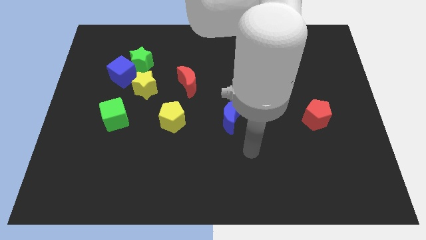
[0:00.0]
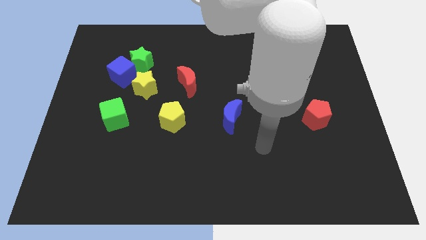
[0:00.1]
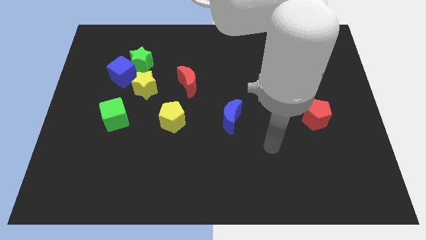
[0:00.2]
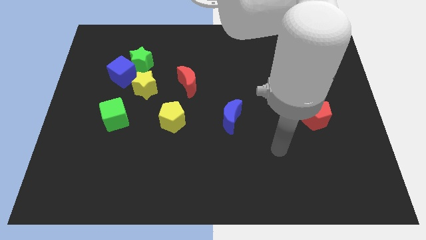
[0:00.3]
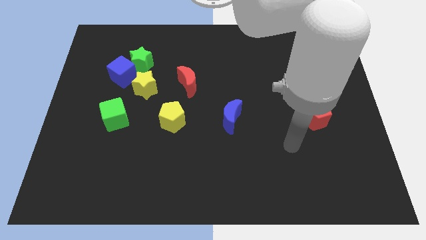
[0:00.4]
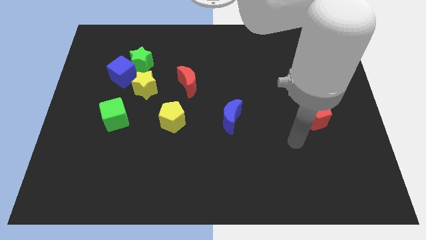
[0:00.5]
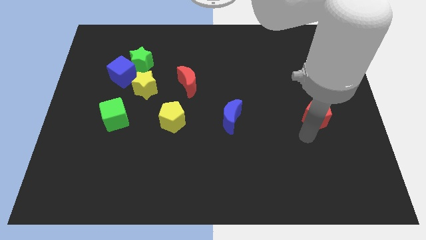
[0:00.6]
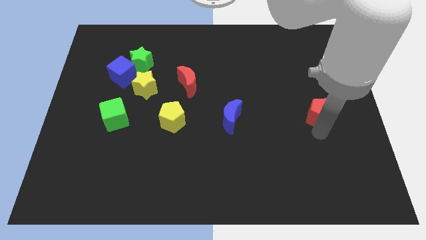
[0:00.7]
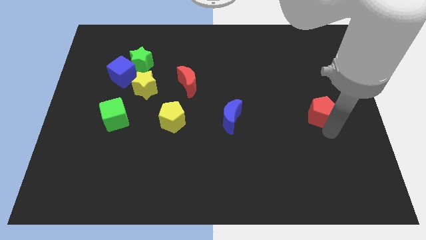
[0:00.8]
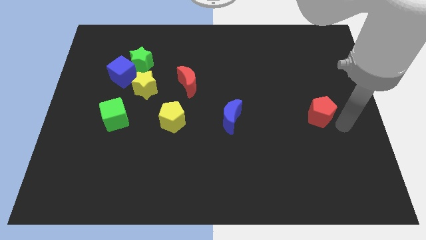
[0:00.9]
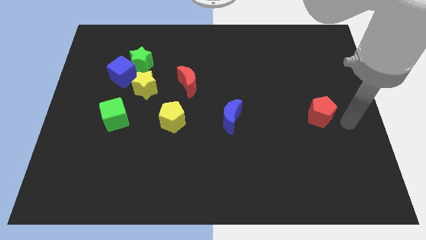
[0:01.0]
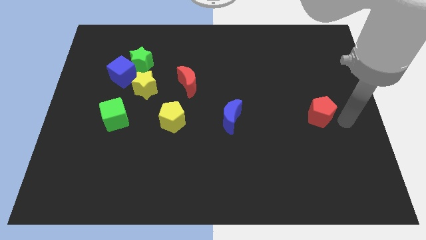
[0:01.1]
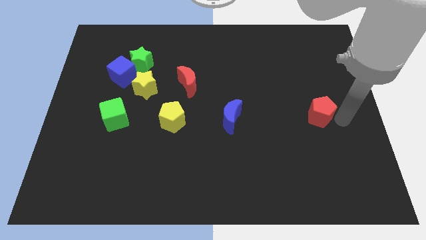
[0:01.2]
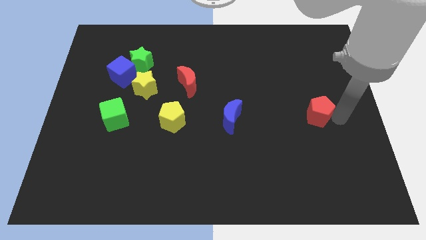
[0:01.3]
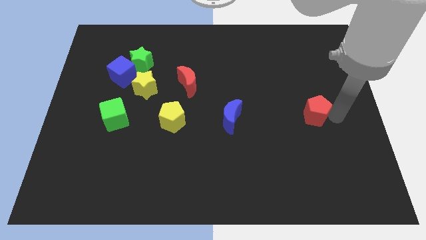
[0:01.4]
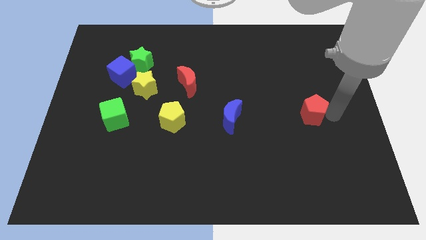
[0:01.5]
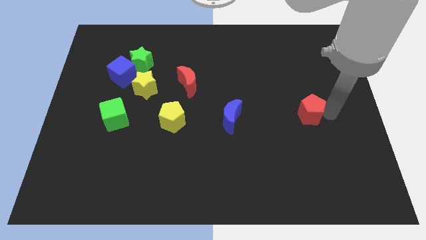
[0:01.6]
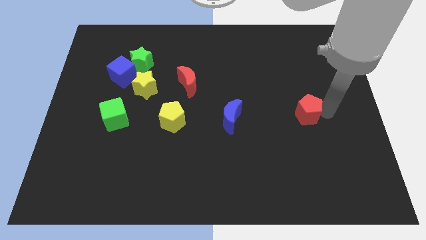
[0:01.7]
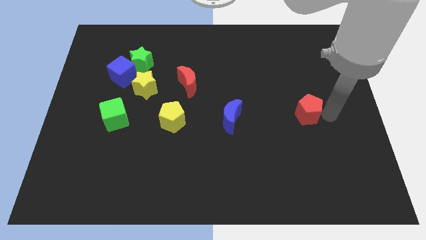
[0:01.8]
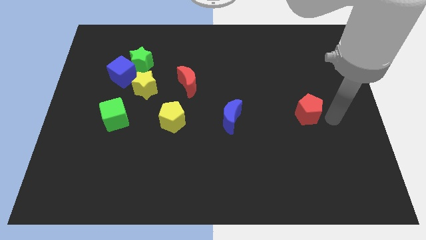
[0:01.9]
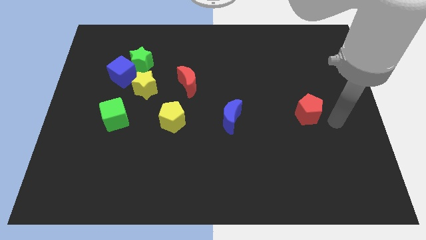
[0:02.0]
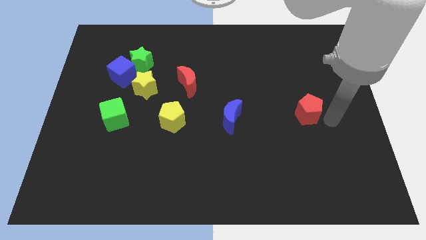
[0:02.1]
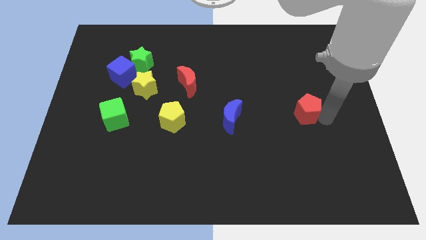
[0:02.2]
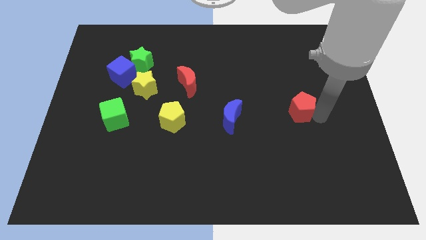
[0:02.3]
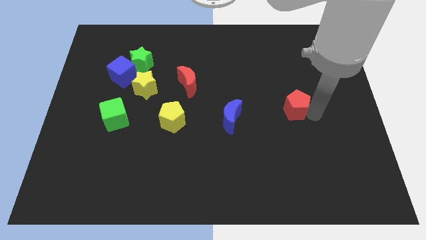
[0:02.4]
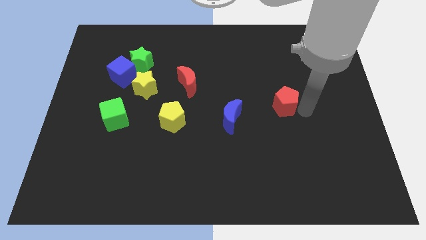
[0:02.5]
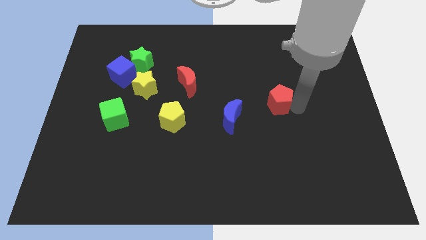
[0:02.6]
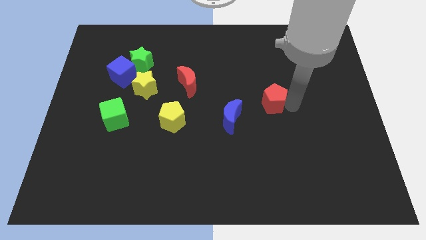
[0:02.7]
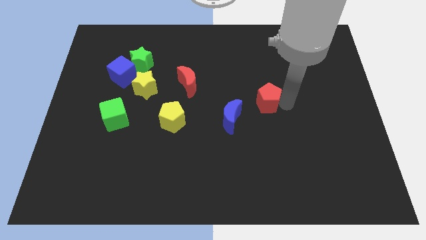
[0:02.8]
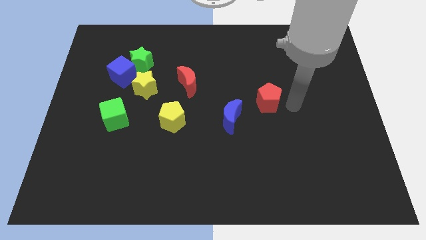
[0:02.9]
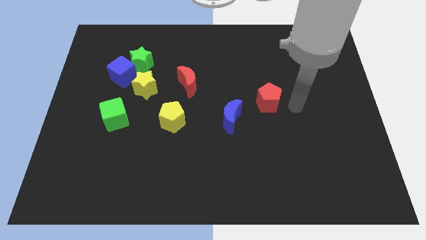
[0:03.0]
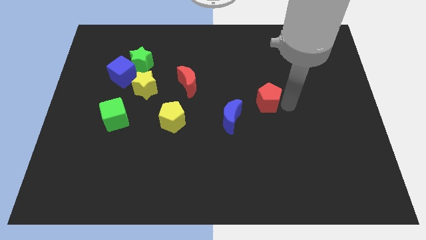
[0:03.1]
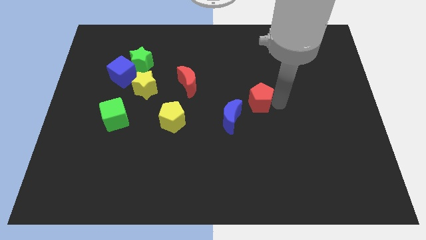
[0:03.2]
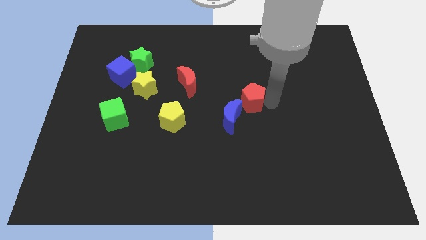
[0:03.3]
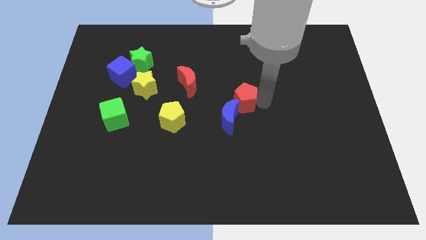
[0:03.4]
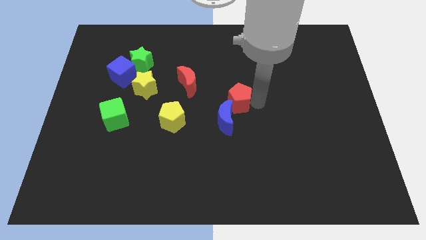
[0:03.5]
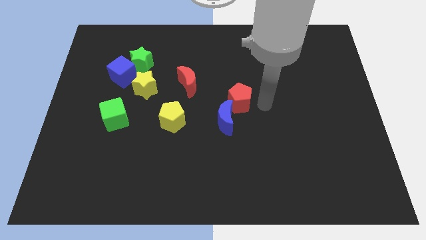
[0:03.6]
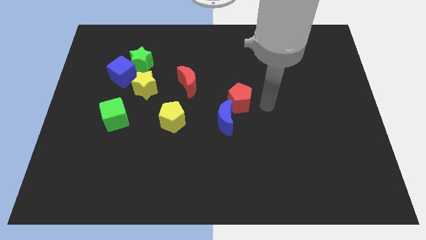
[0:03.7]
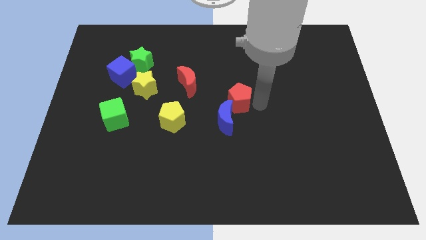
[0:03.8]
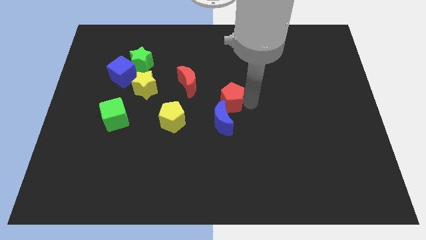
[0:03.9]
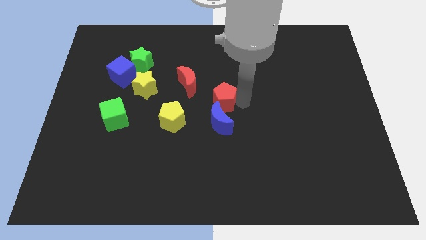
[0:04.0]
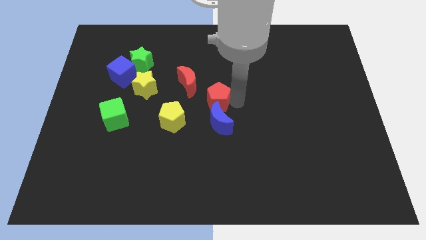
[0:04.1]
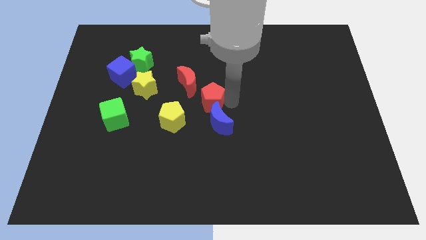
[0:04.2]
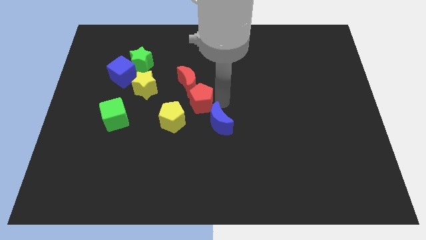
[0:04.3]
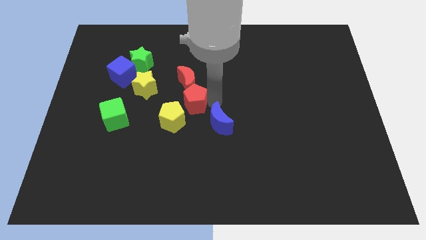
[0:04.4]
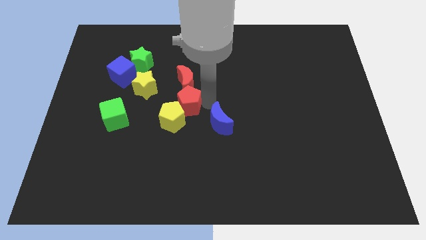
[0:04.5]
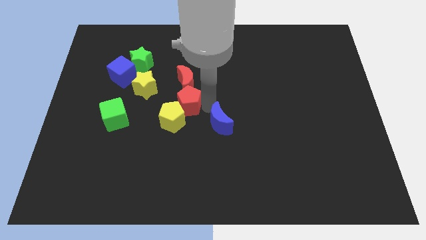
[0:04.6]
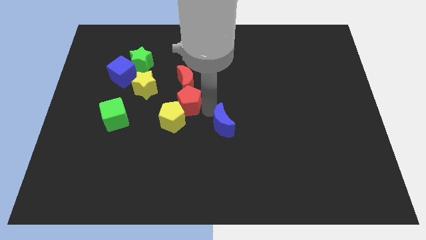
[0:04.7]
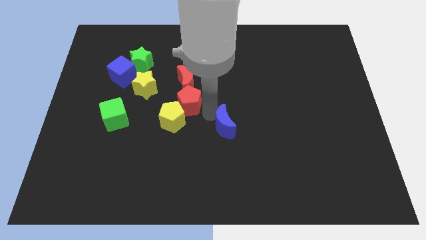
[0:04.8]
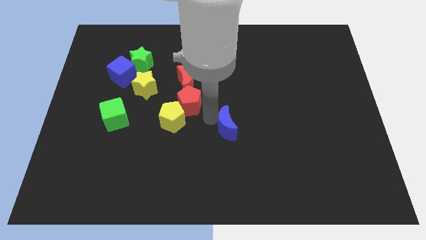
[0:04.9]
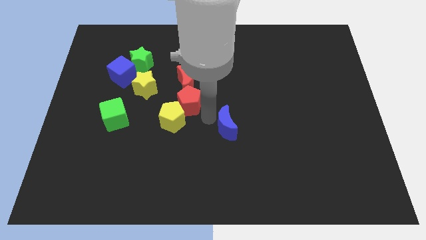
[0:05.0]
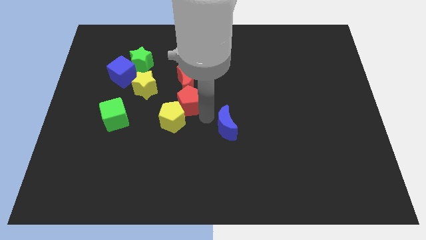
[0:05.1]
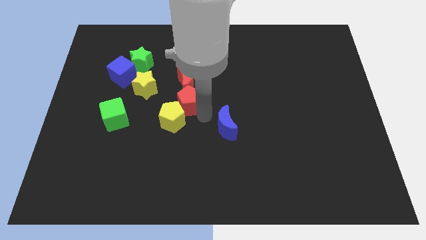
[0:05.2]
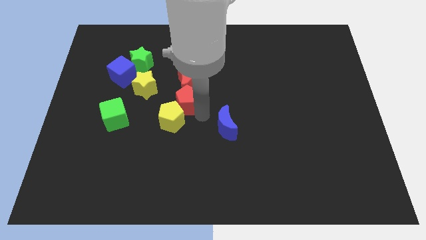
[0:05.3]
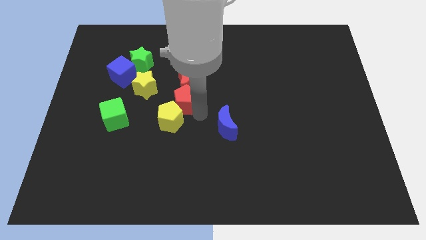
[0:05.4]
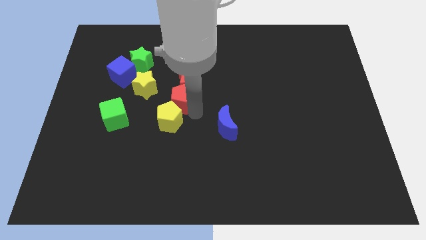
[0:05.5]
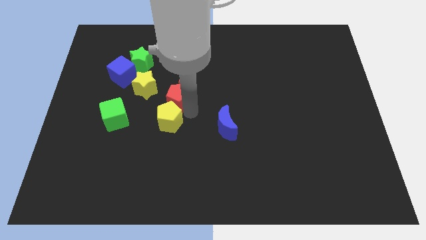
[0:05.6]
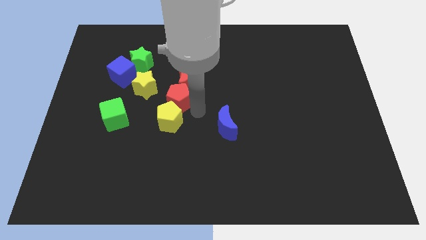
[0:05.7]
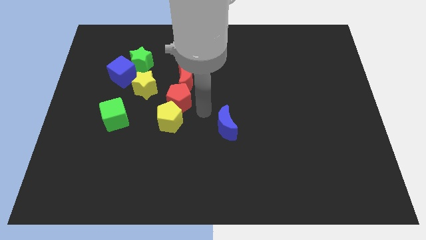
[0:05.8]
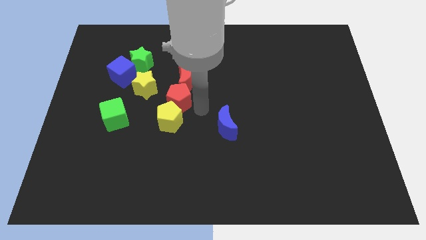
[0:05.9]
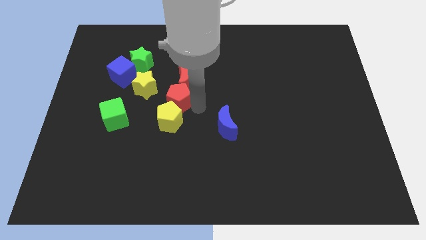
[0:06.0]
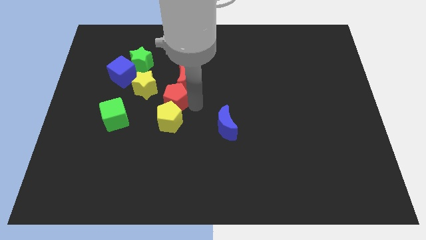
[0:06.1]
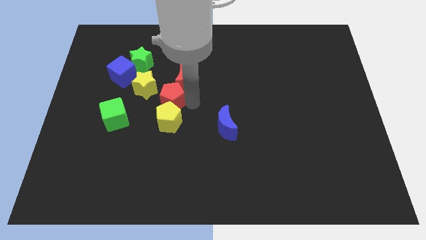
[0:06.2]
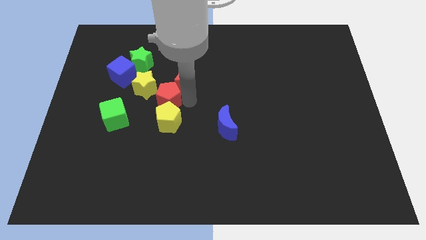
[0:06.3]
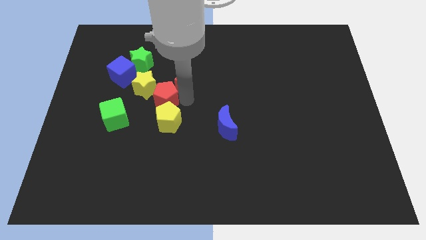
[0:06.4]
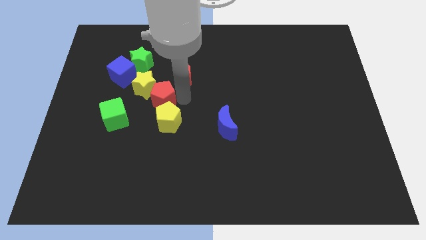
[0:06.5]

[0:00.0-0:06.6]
push the red pentagon next to the yellow star
